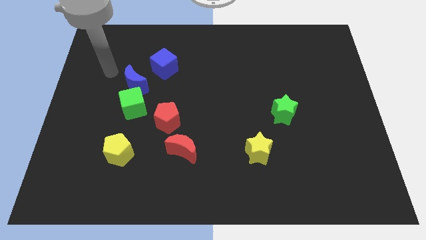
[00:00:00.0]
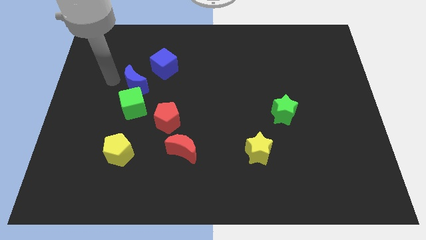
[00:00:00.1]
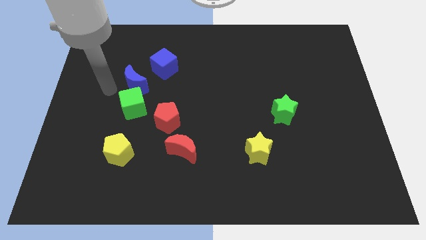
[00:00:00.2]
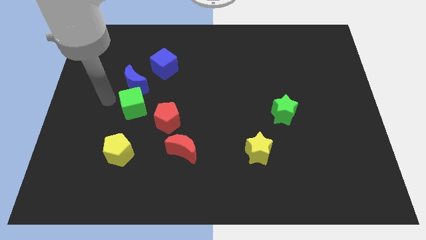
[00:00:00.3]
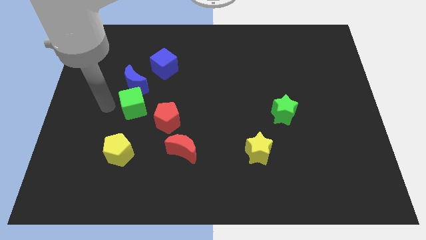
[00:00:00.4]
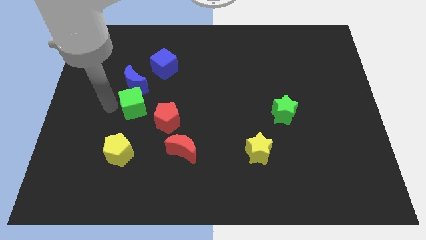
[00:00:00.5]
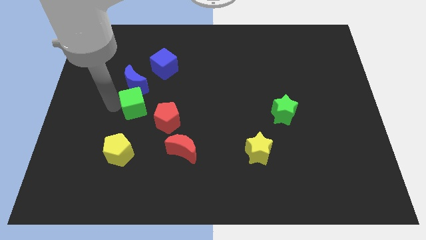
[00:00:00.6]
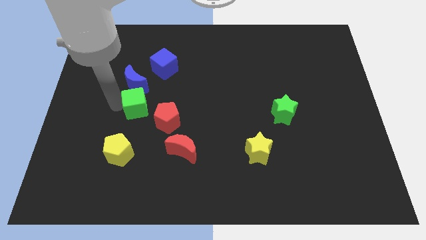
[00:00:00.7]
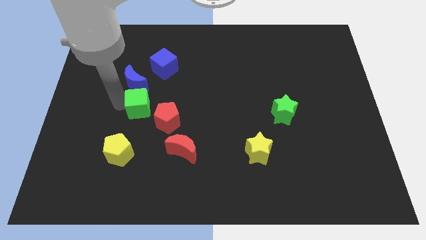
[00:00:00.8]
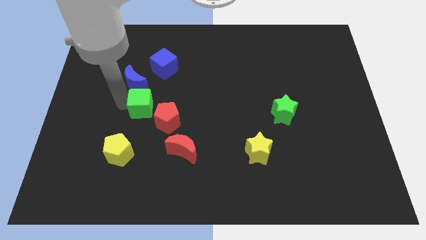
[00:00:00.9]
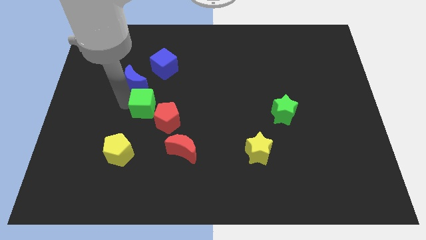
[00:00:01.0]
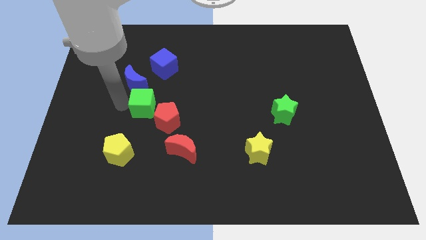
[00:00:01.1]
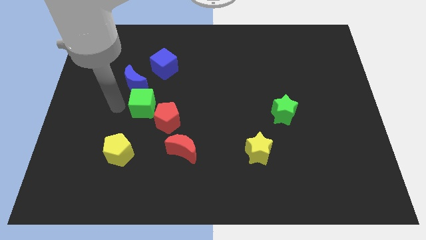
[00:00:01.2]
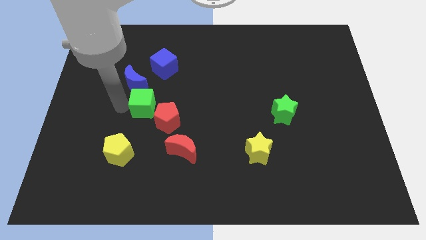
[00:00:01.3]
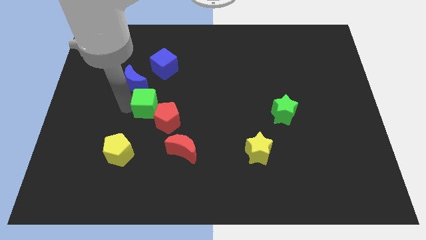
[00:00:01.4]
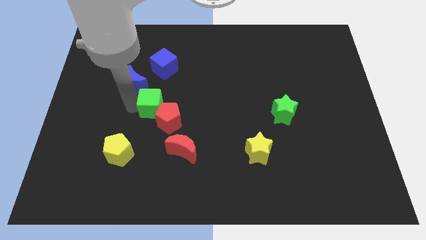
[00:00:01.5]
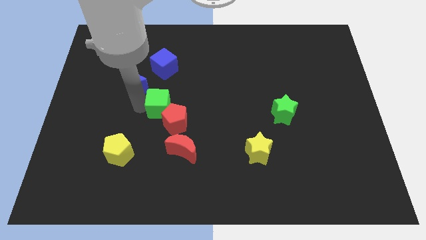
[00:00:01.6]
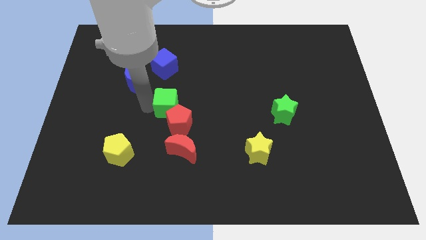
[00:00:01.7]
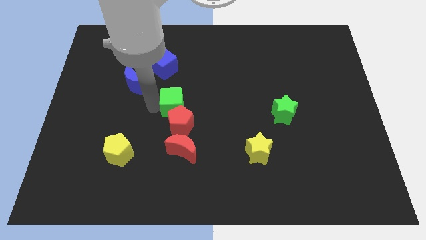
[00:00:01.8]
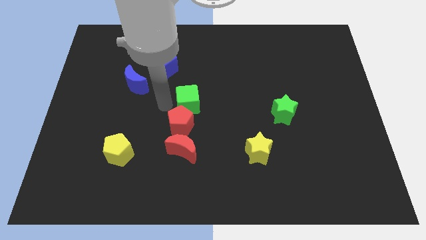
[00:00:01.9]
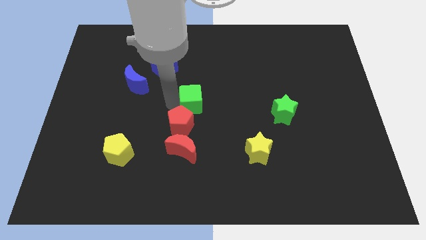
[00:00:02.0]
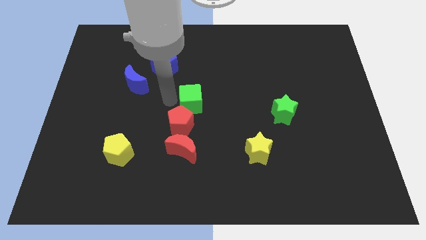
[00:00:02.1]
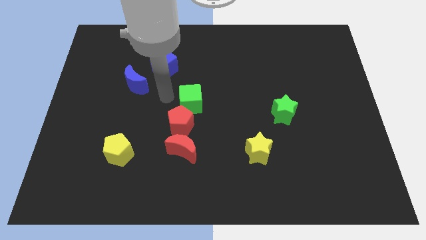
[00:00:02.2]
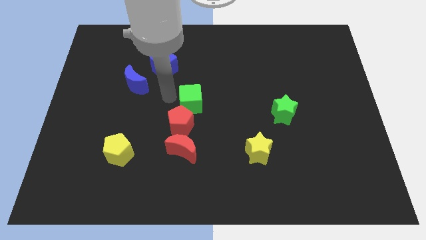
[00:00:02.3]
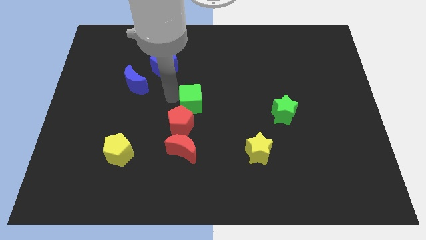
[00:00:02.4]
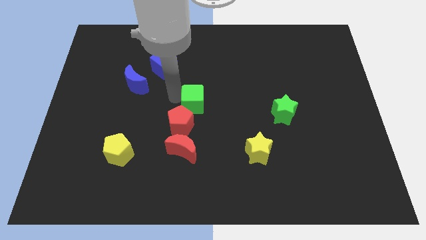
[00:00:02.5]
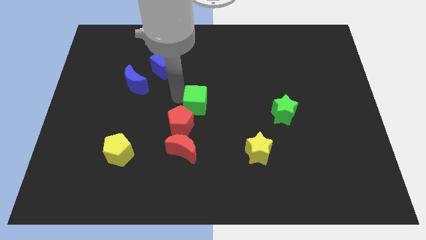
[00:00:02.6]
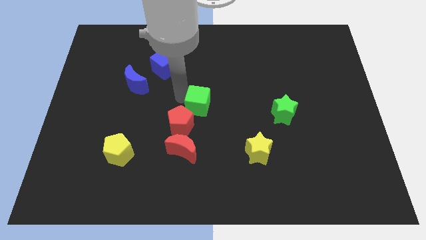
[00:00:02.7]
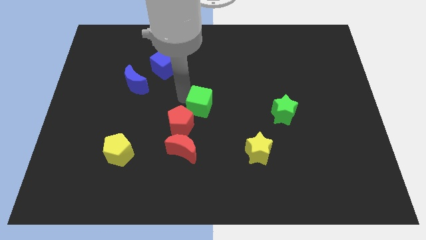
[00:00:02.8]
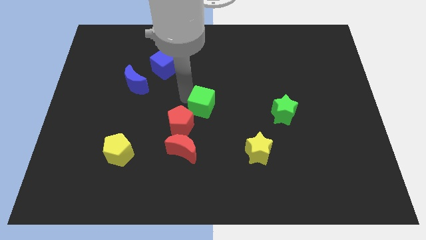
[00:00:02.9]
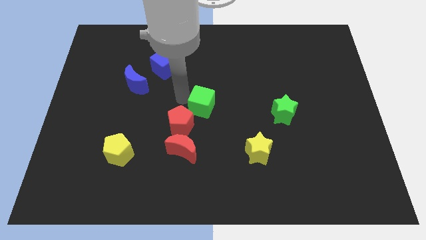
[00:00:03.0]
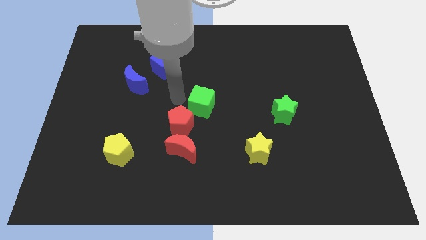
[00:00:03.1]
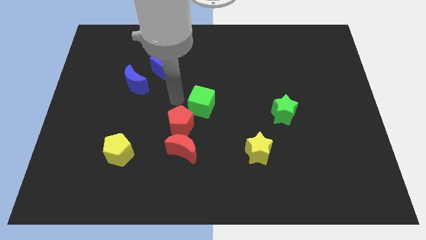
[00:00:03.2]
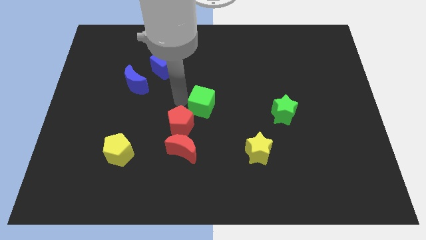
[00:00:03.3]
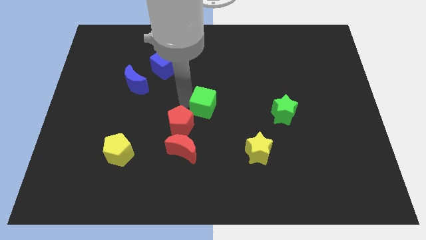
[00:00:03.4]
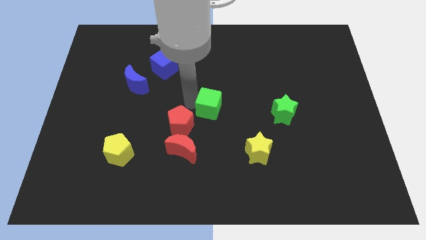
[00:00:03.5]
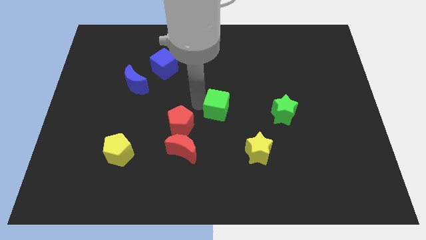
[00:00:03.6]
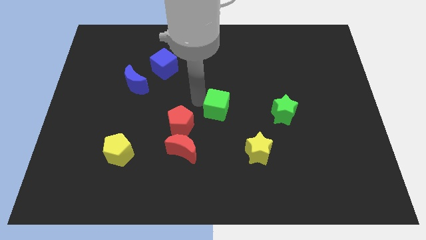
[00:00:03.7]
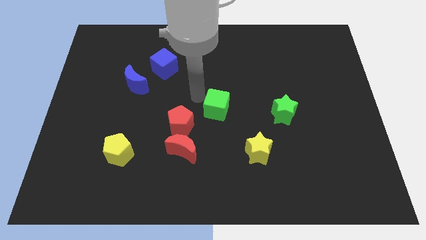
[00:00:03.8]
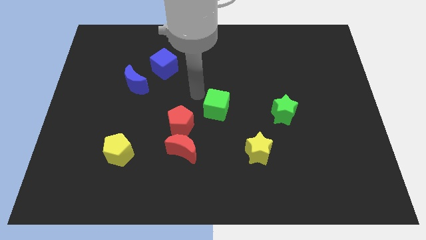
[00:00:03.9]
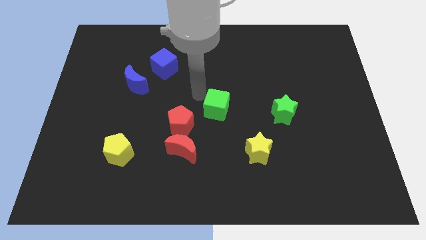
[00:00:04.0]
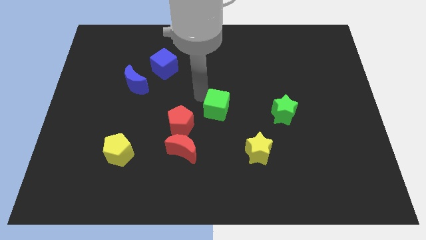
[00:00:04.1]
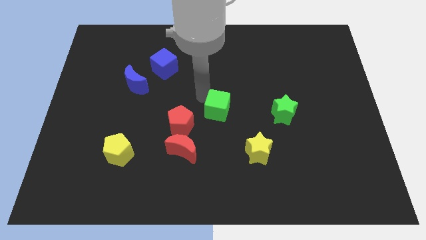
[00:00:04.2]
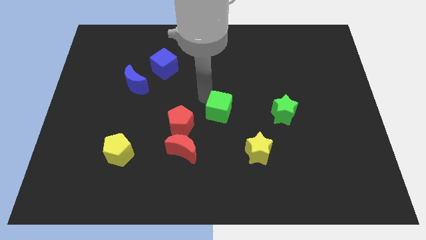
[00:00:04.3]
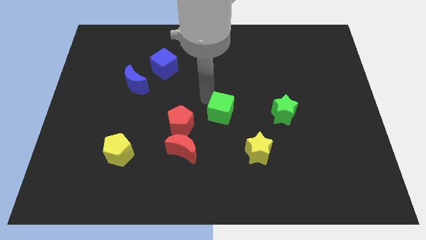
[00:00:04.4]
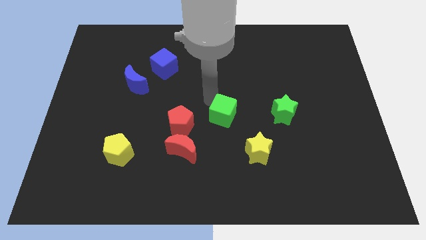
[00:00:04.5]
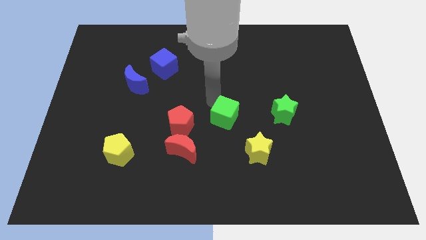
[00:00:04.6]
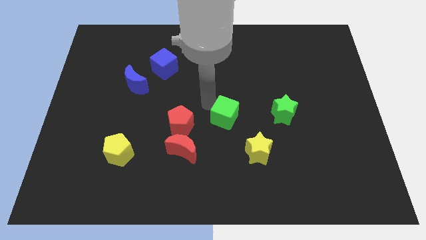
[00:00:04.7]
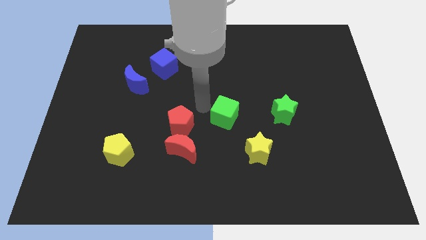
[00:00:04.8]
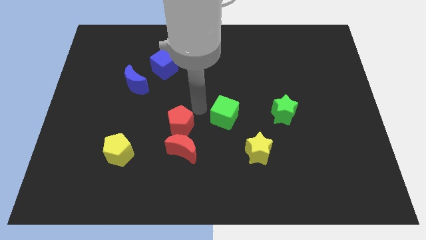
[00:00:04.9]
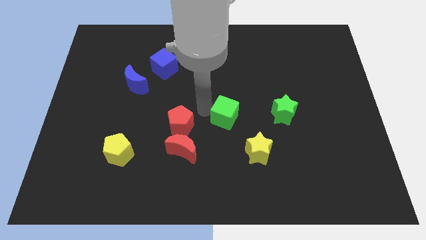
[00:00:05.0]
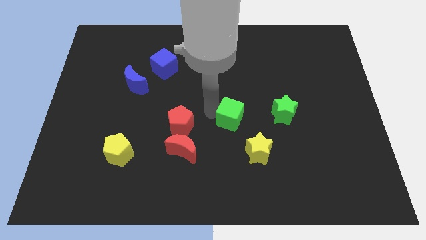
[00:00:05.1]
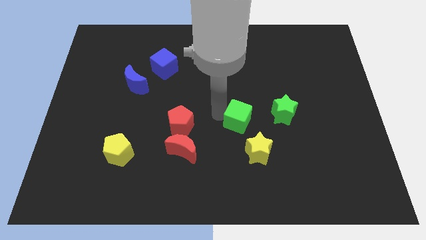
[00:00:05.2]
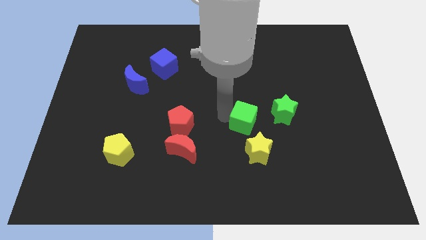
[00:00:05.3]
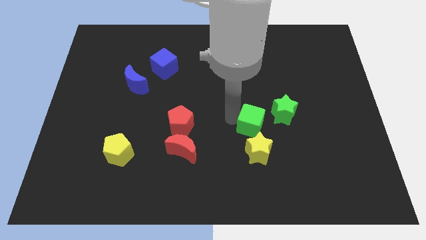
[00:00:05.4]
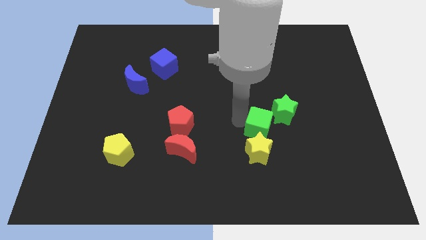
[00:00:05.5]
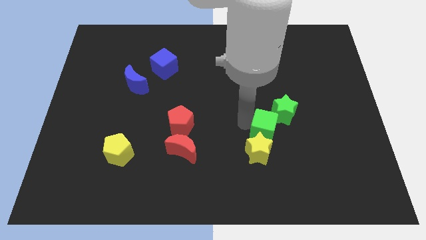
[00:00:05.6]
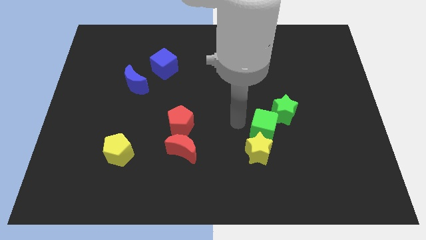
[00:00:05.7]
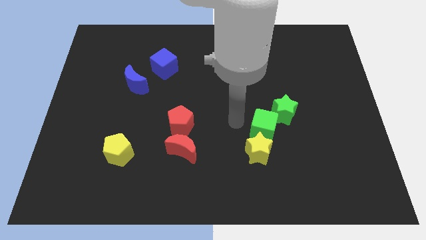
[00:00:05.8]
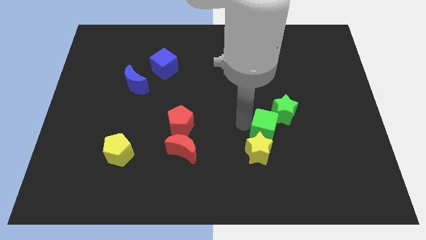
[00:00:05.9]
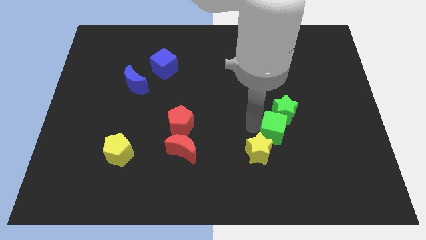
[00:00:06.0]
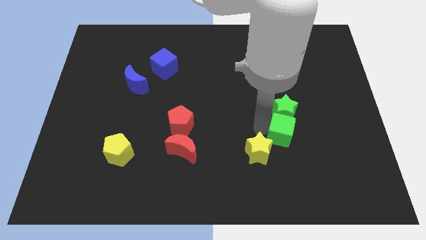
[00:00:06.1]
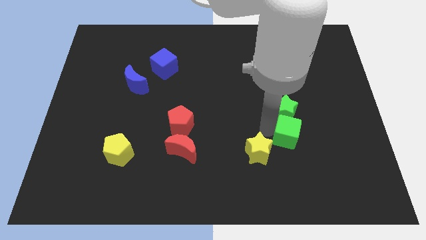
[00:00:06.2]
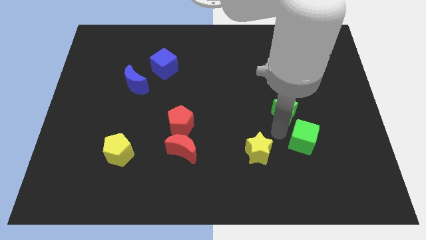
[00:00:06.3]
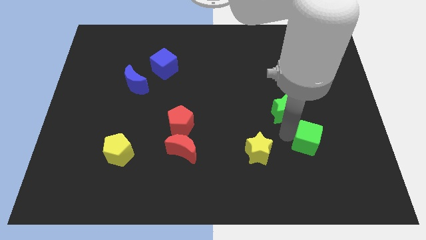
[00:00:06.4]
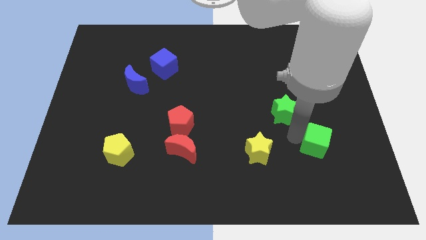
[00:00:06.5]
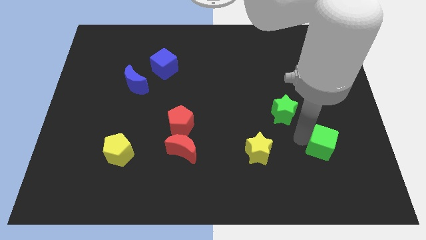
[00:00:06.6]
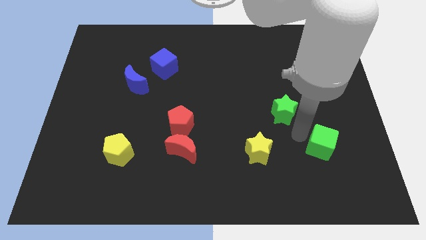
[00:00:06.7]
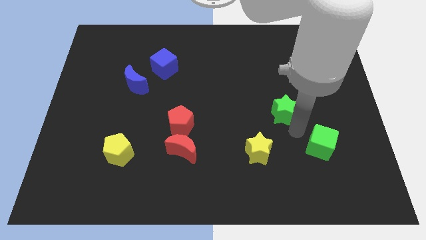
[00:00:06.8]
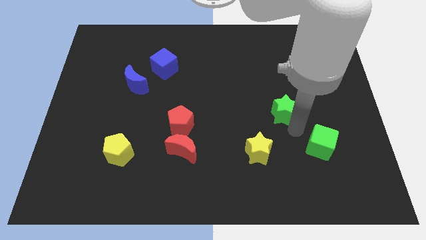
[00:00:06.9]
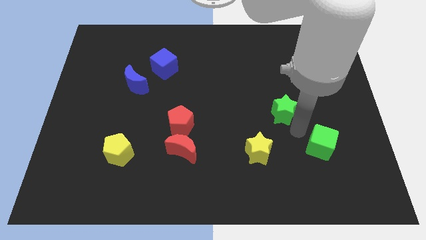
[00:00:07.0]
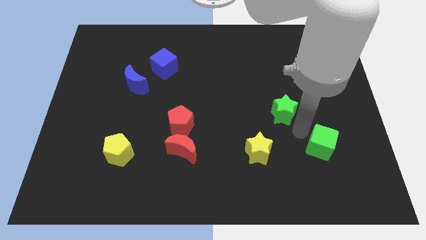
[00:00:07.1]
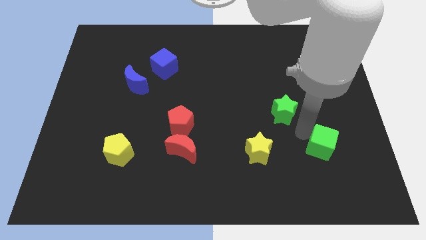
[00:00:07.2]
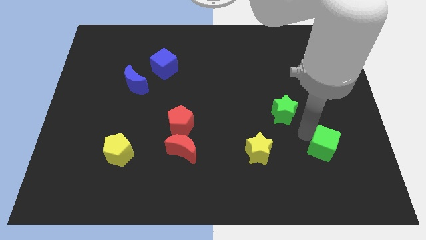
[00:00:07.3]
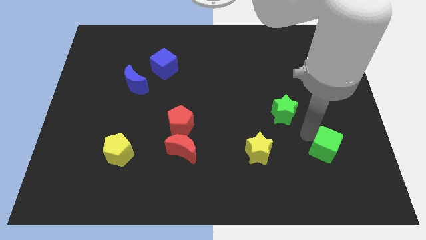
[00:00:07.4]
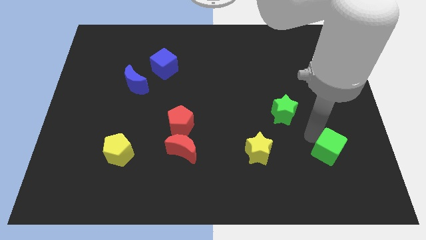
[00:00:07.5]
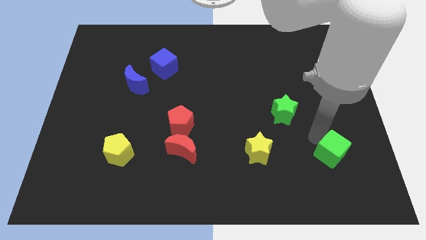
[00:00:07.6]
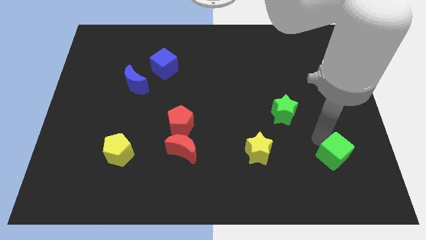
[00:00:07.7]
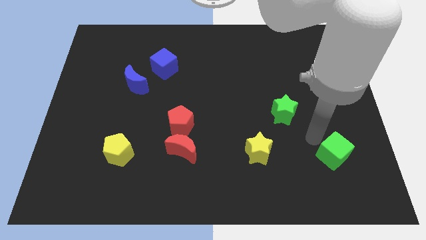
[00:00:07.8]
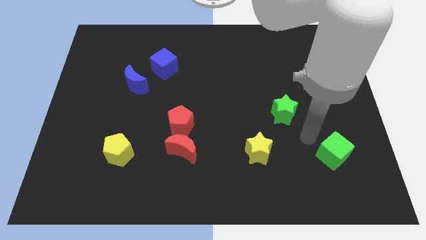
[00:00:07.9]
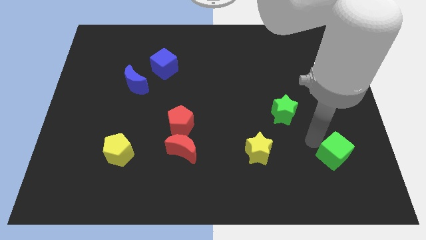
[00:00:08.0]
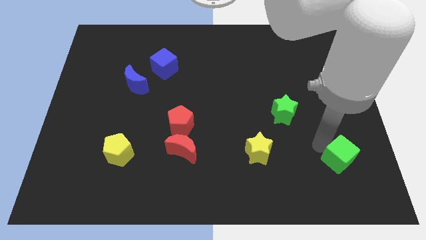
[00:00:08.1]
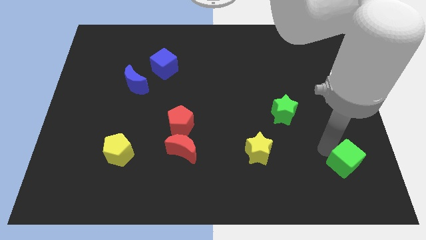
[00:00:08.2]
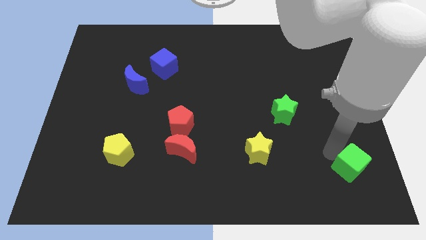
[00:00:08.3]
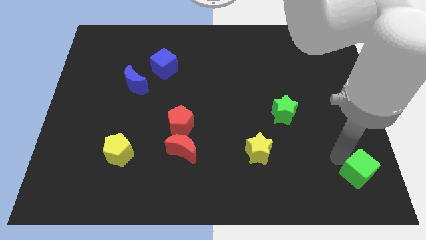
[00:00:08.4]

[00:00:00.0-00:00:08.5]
put the green cube to the bottom right
